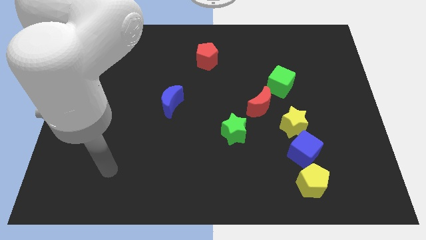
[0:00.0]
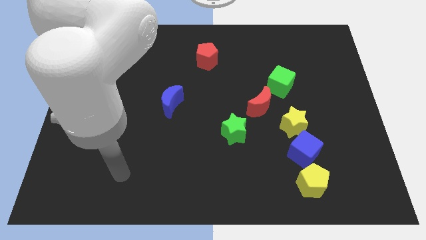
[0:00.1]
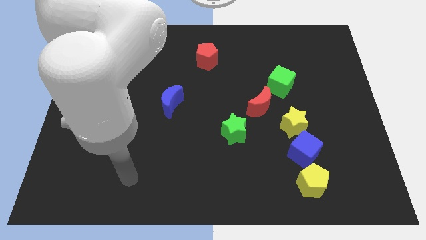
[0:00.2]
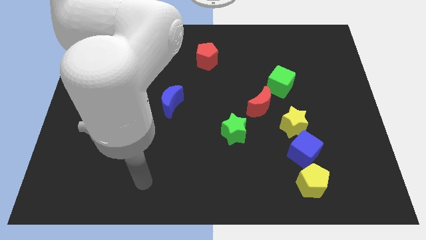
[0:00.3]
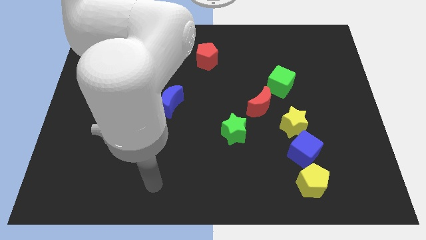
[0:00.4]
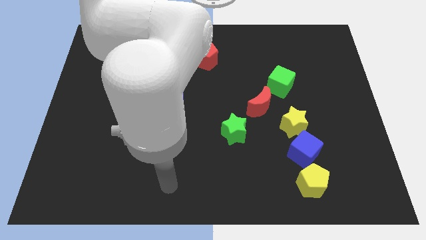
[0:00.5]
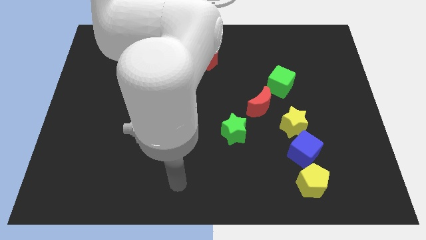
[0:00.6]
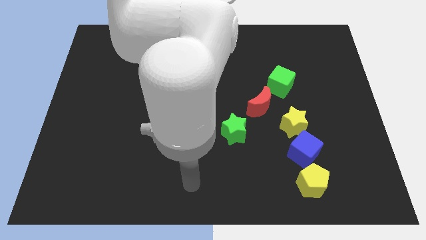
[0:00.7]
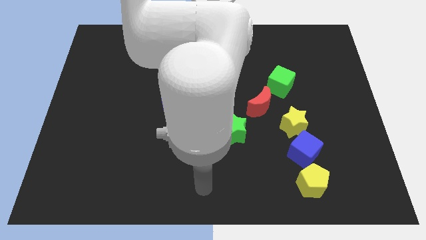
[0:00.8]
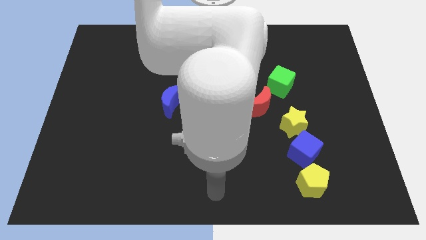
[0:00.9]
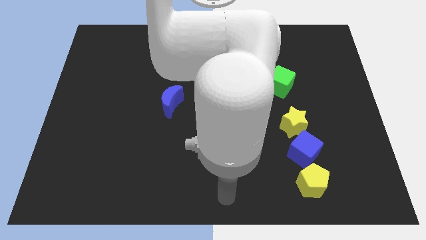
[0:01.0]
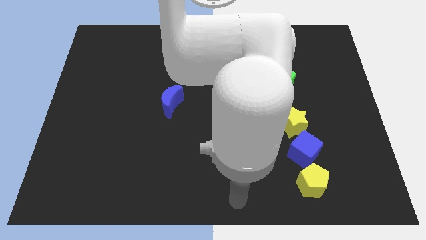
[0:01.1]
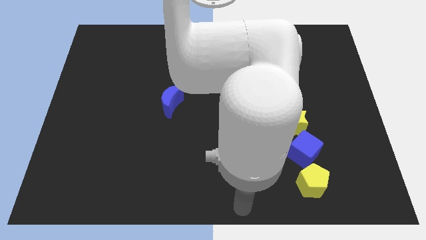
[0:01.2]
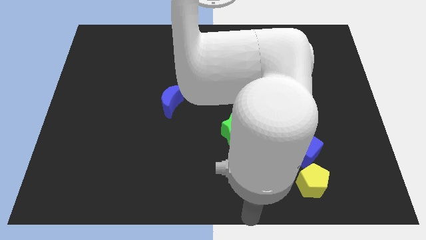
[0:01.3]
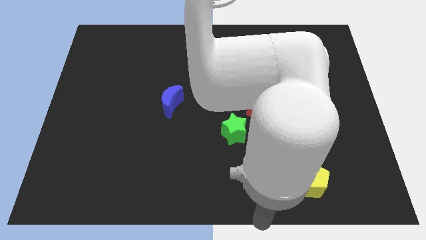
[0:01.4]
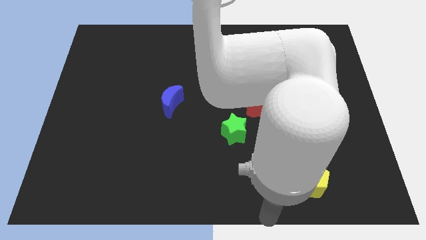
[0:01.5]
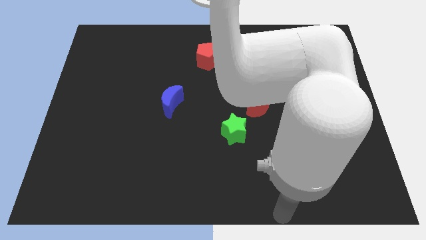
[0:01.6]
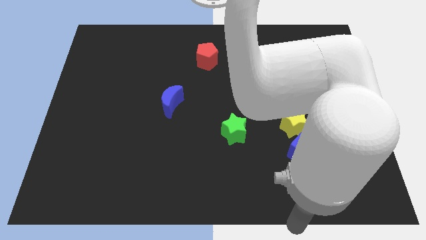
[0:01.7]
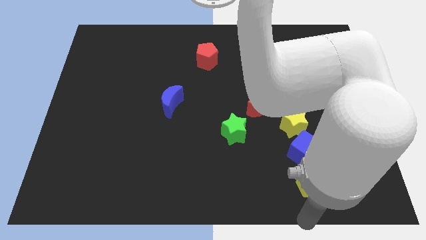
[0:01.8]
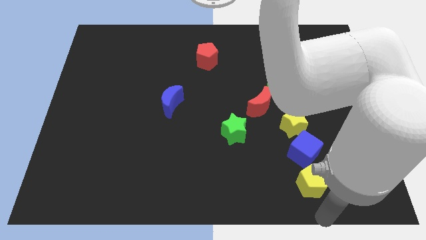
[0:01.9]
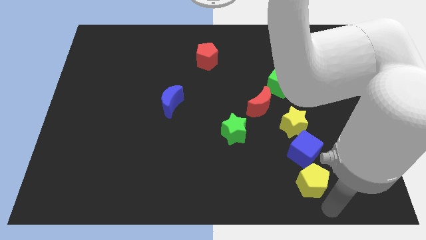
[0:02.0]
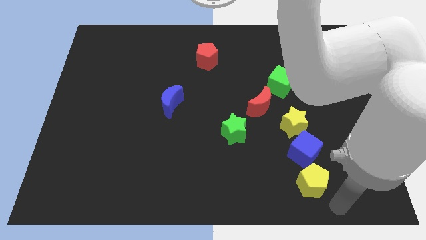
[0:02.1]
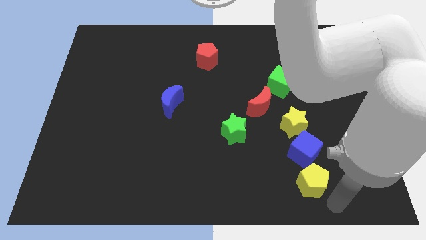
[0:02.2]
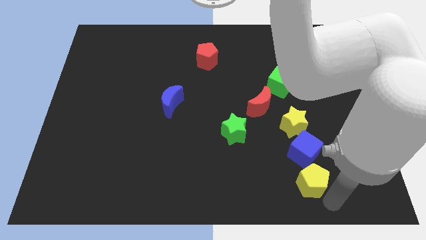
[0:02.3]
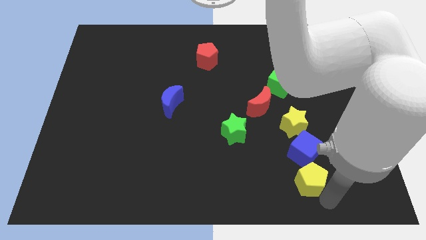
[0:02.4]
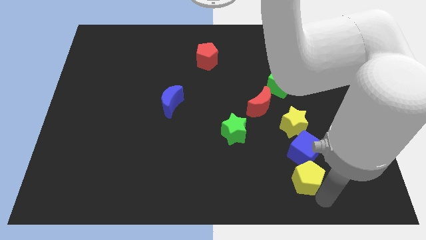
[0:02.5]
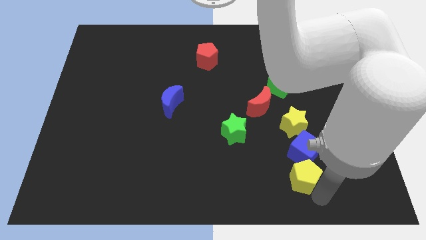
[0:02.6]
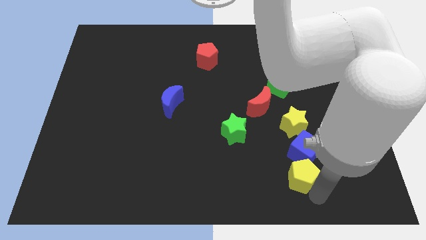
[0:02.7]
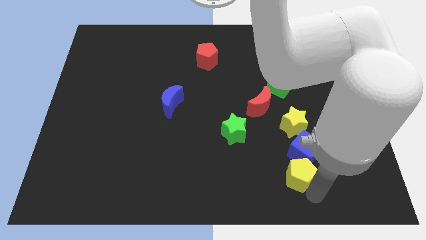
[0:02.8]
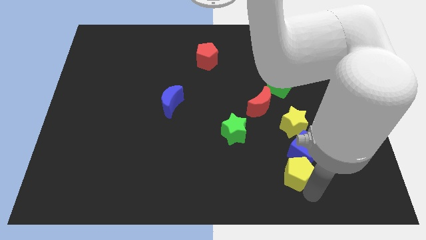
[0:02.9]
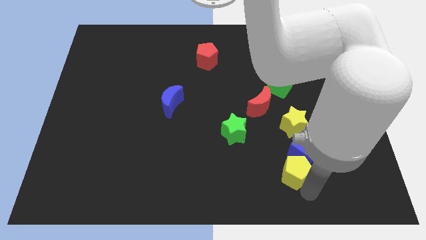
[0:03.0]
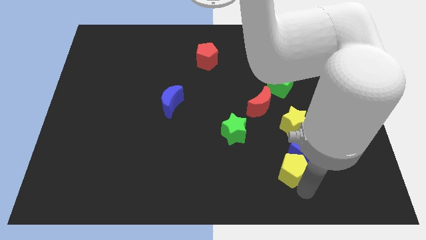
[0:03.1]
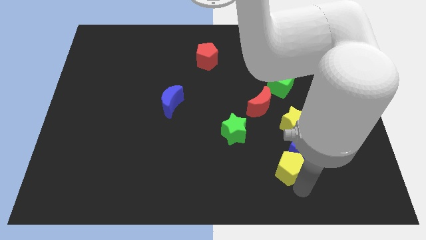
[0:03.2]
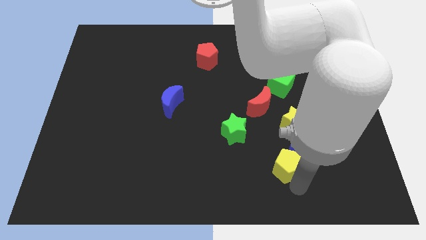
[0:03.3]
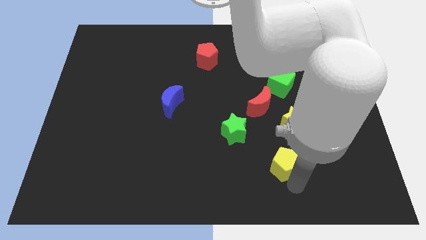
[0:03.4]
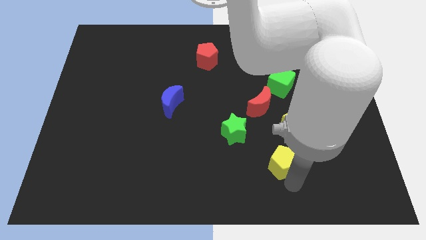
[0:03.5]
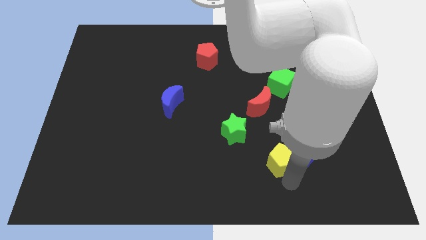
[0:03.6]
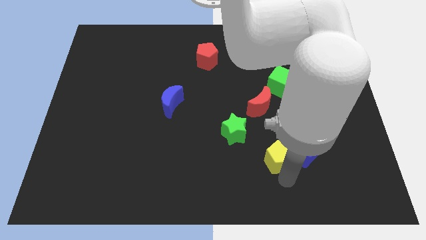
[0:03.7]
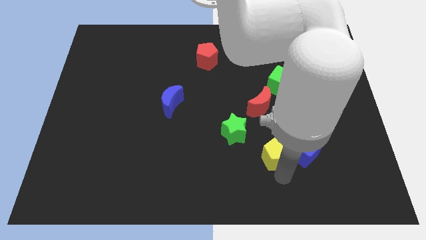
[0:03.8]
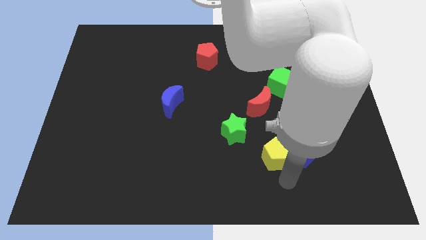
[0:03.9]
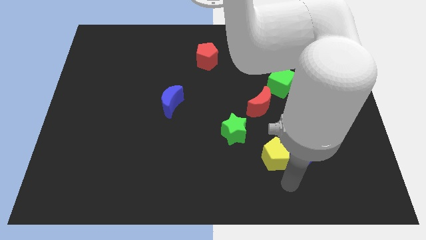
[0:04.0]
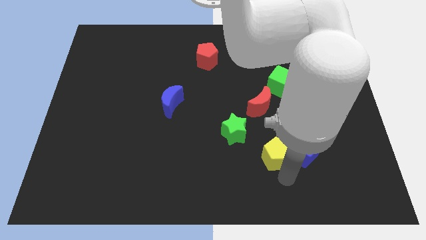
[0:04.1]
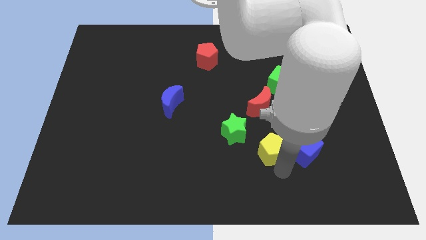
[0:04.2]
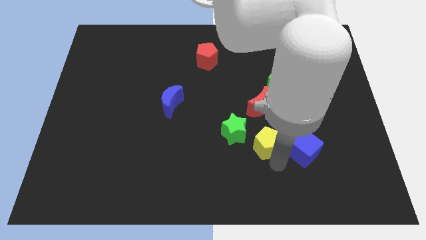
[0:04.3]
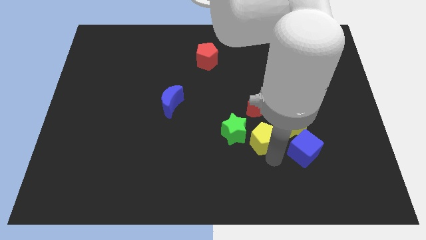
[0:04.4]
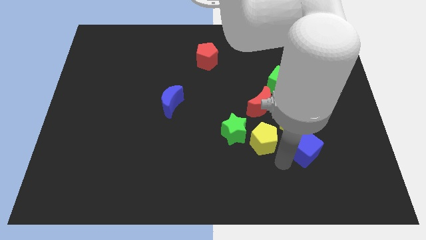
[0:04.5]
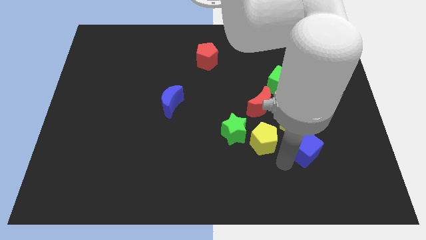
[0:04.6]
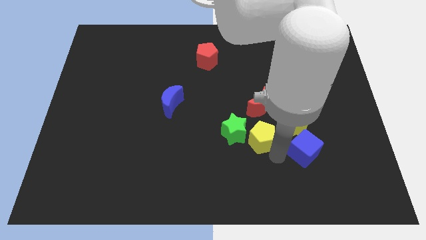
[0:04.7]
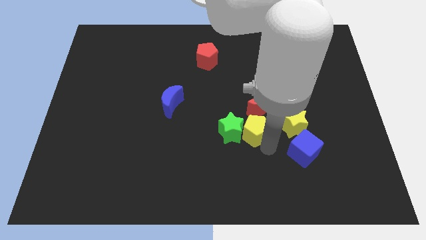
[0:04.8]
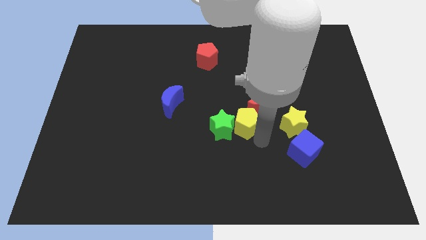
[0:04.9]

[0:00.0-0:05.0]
push the yellow pentagon to the middle

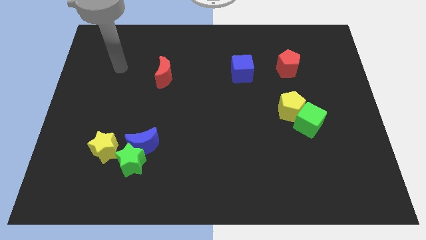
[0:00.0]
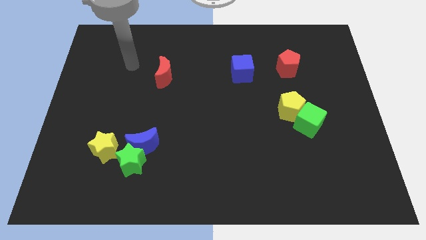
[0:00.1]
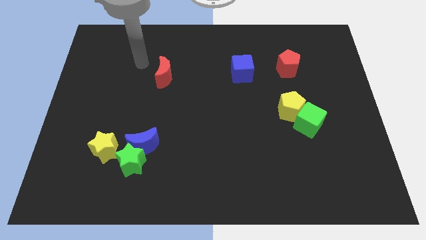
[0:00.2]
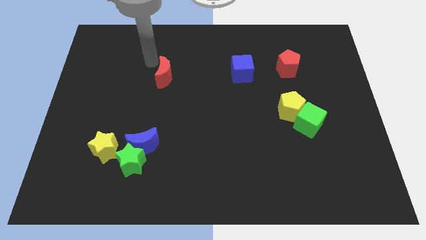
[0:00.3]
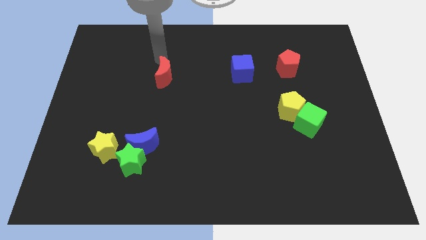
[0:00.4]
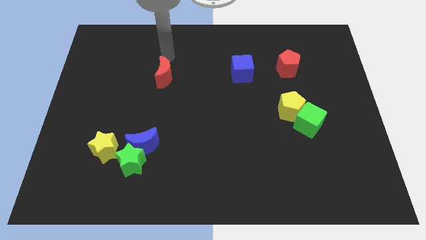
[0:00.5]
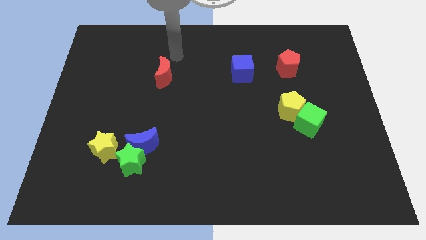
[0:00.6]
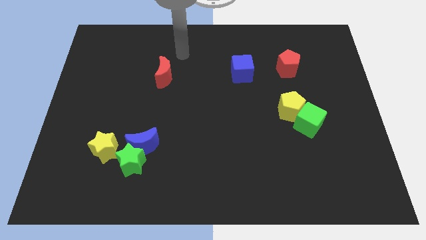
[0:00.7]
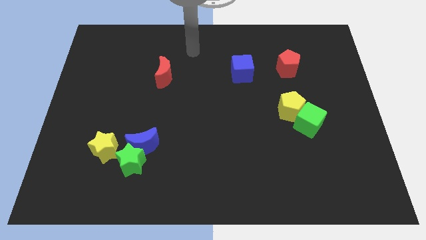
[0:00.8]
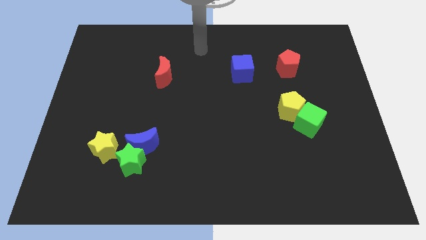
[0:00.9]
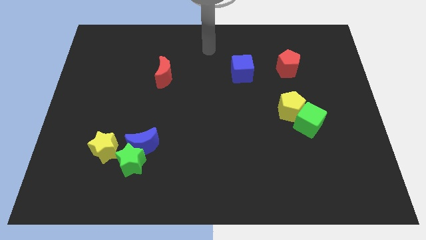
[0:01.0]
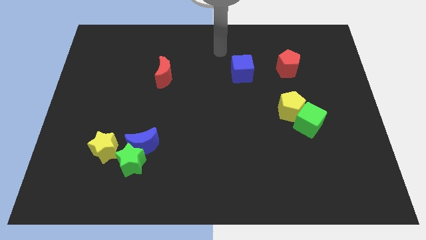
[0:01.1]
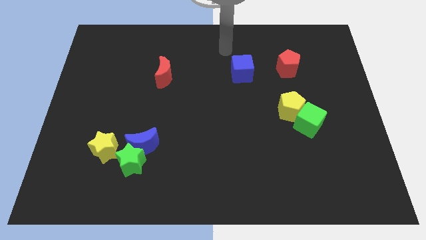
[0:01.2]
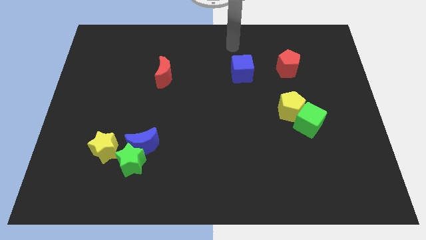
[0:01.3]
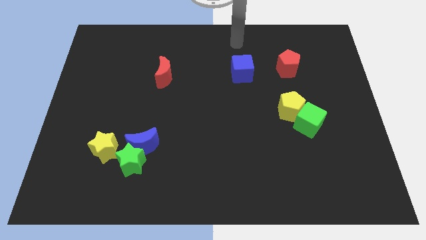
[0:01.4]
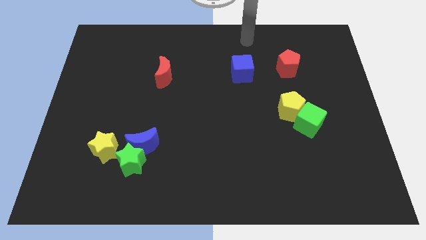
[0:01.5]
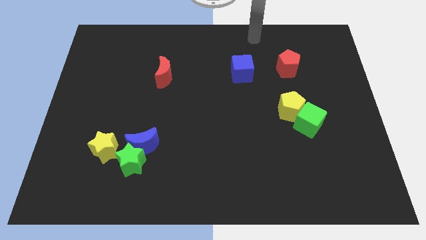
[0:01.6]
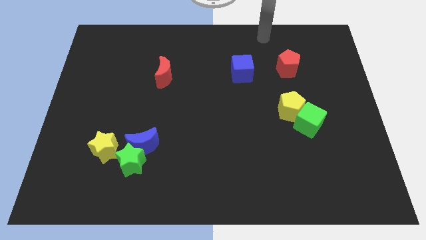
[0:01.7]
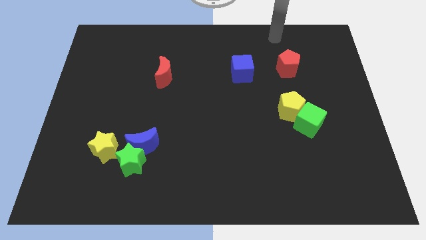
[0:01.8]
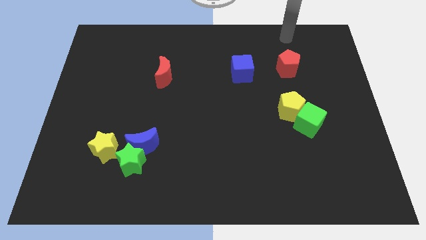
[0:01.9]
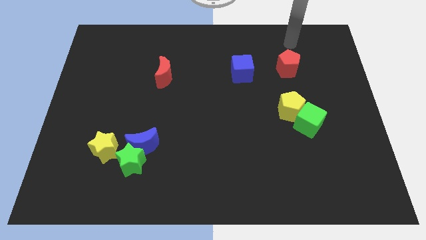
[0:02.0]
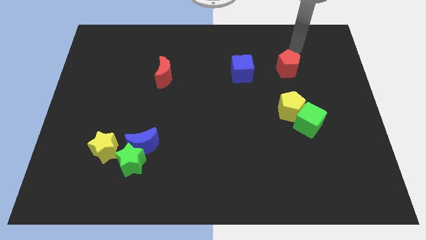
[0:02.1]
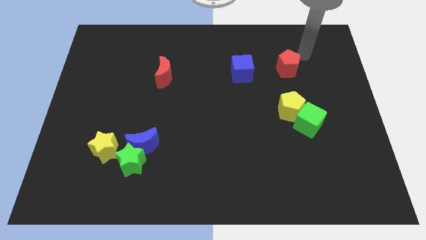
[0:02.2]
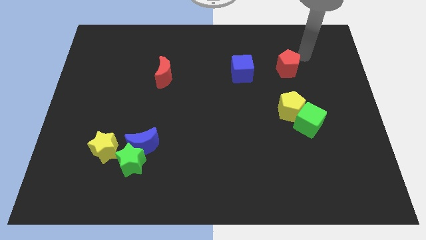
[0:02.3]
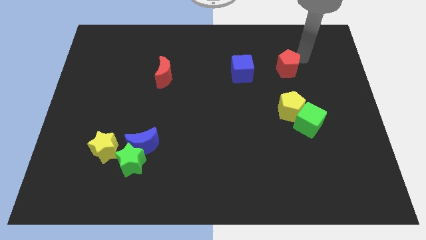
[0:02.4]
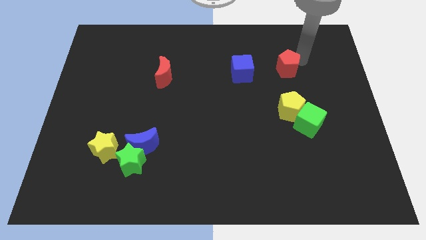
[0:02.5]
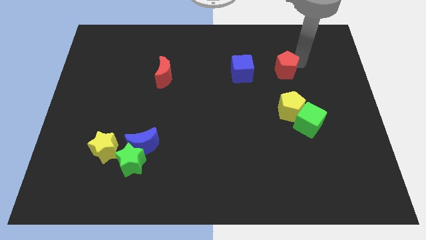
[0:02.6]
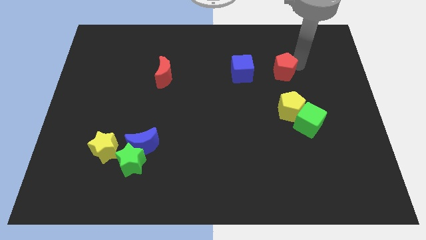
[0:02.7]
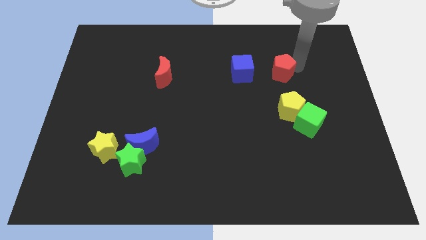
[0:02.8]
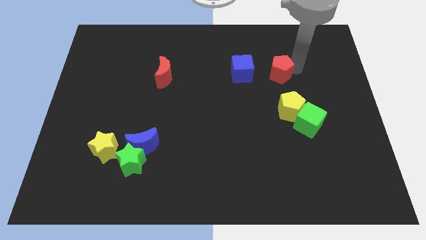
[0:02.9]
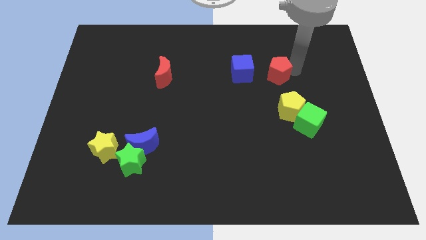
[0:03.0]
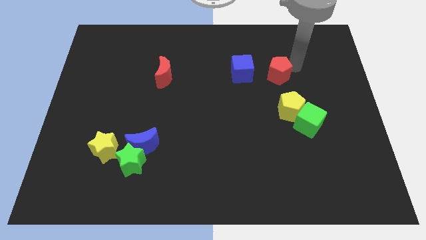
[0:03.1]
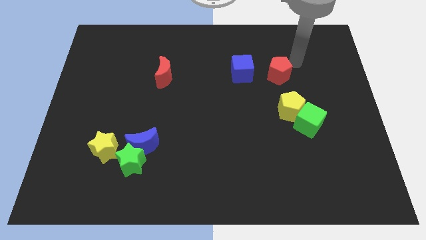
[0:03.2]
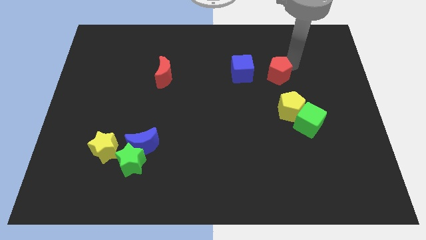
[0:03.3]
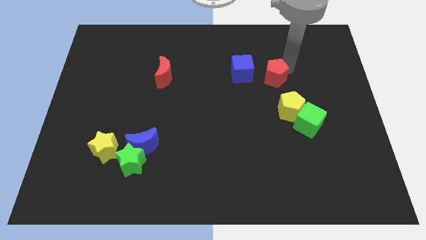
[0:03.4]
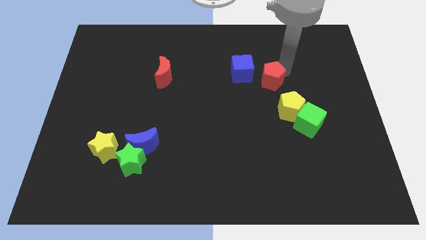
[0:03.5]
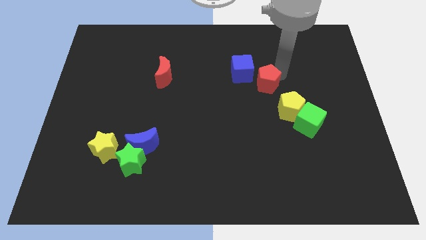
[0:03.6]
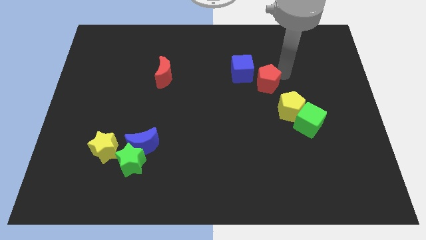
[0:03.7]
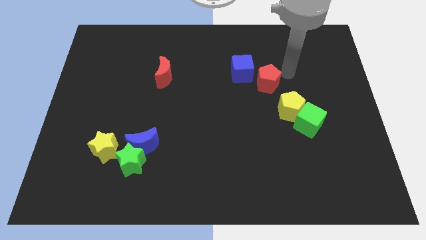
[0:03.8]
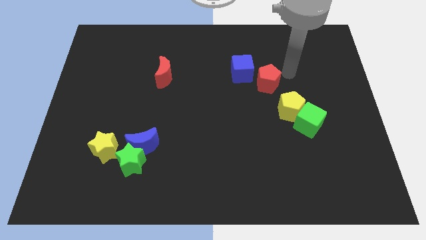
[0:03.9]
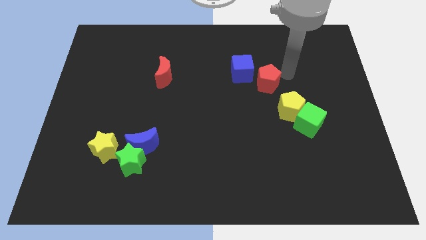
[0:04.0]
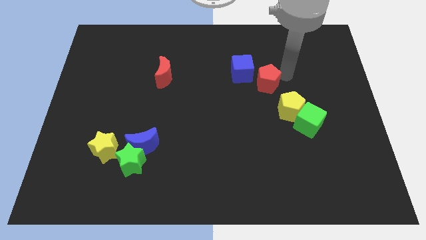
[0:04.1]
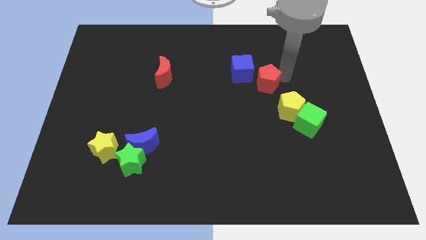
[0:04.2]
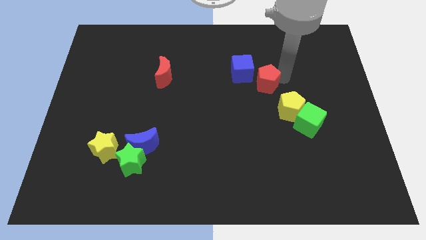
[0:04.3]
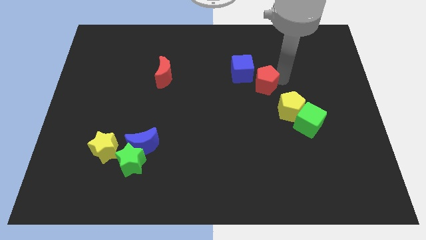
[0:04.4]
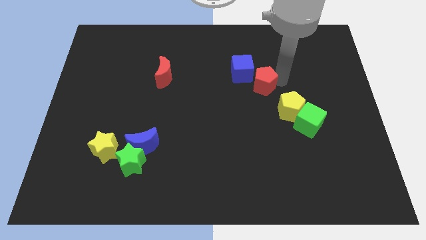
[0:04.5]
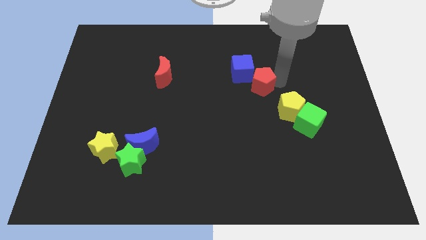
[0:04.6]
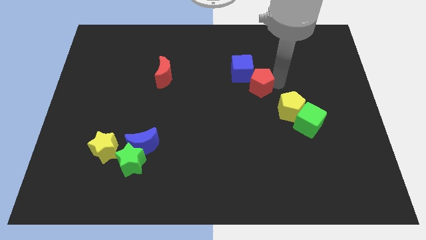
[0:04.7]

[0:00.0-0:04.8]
put the red pentagon to the middle
